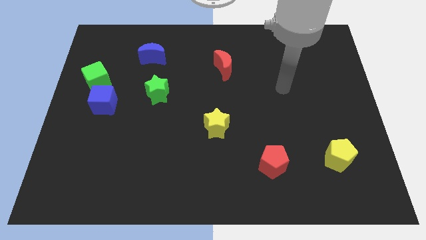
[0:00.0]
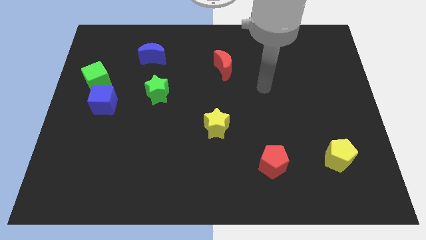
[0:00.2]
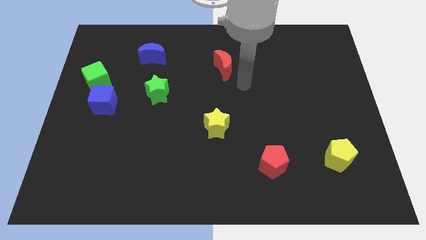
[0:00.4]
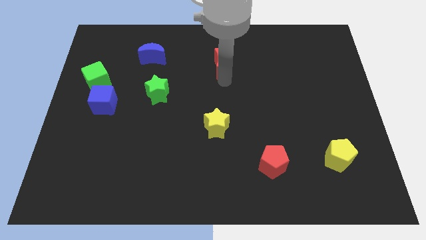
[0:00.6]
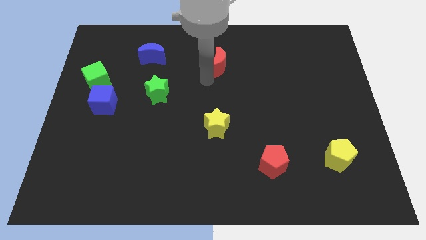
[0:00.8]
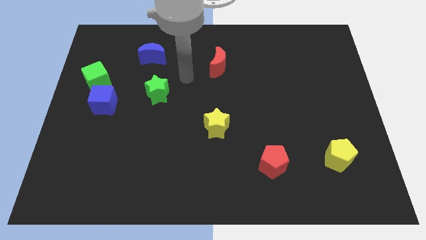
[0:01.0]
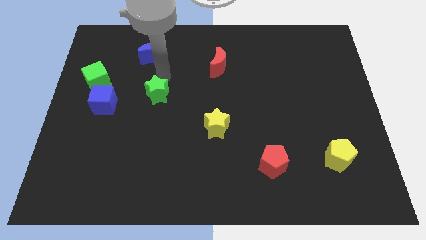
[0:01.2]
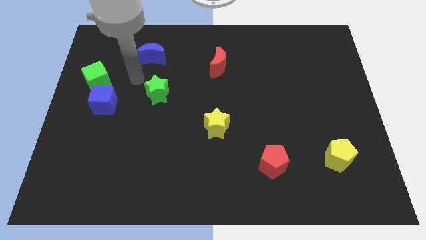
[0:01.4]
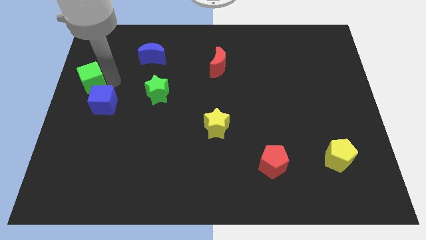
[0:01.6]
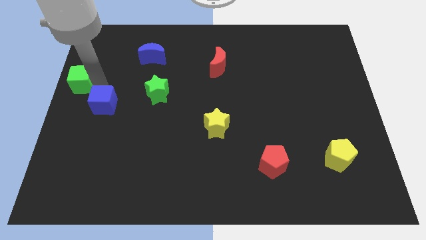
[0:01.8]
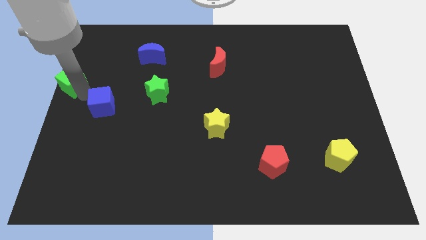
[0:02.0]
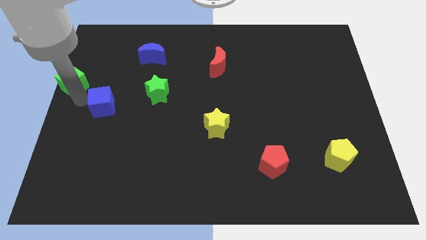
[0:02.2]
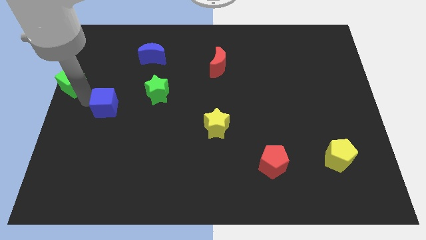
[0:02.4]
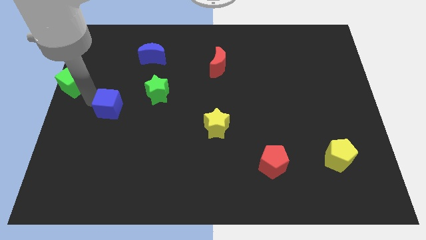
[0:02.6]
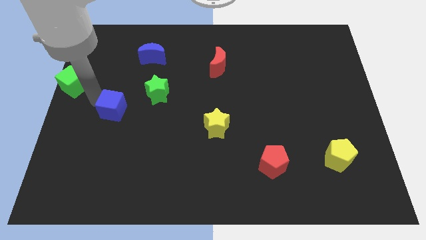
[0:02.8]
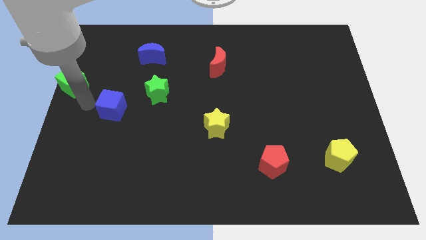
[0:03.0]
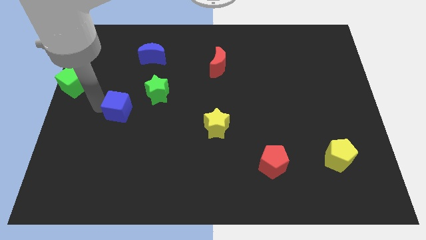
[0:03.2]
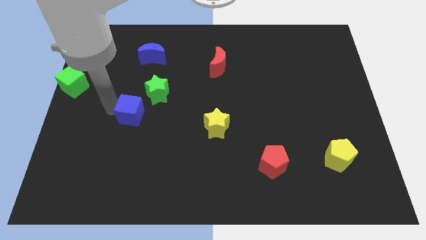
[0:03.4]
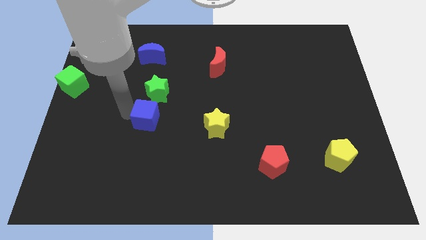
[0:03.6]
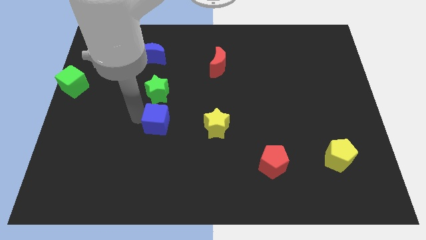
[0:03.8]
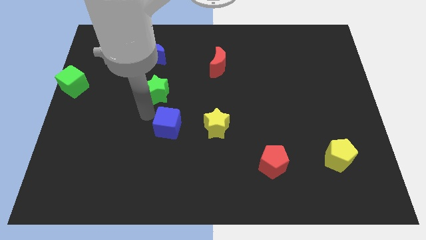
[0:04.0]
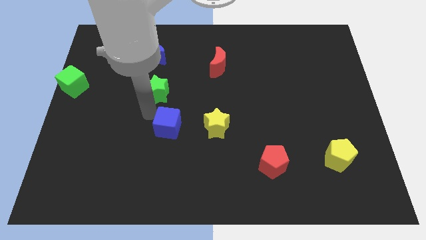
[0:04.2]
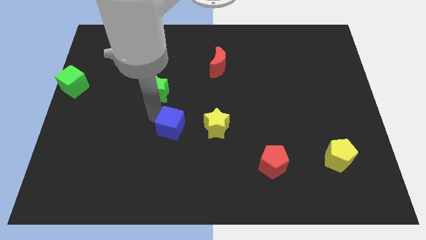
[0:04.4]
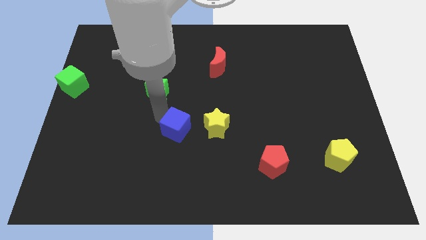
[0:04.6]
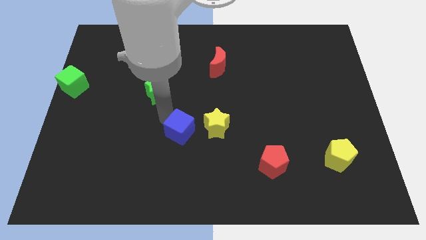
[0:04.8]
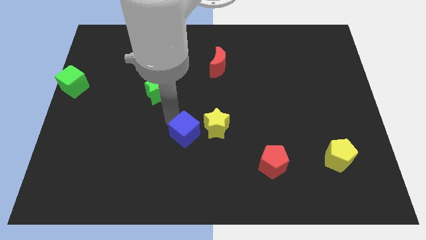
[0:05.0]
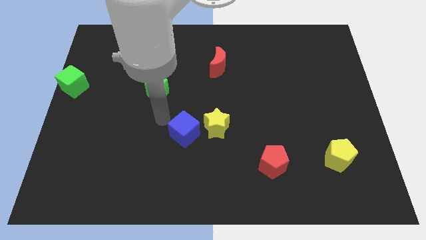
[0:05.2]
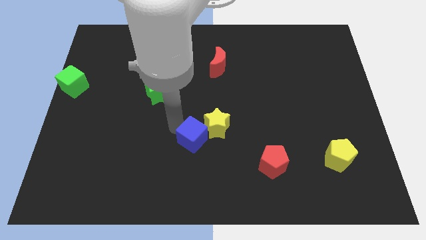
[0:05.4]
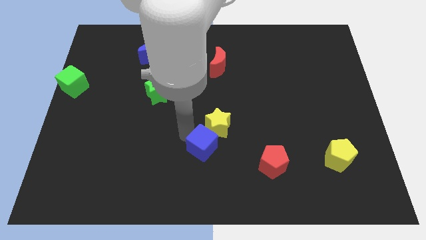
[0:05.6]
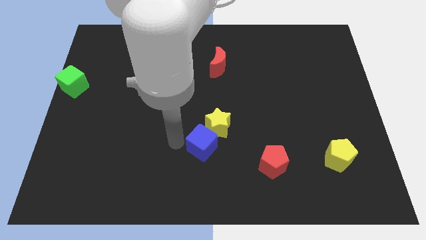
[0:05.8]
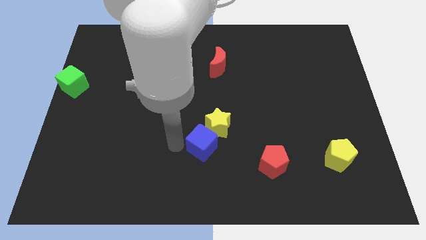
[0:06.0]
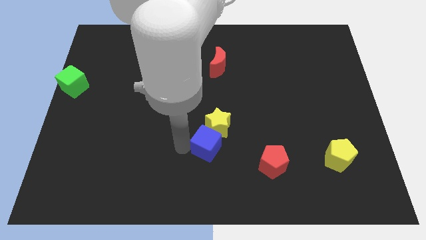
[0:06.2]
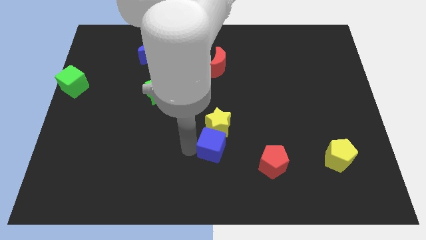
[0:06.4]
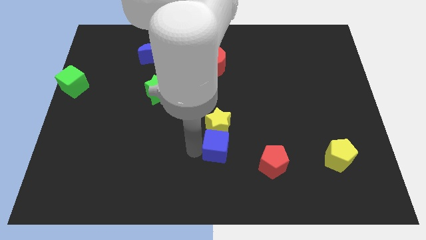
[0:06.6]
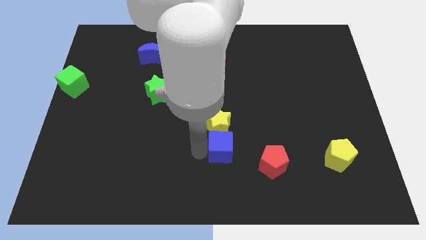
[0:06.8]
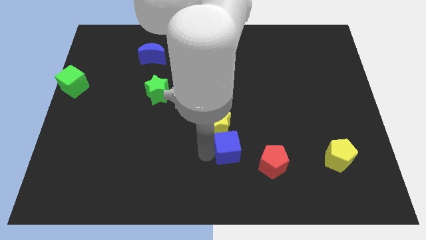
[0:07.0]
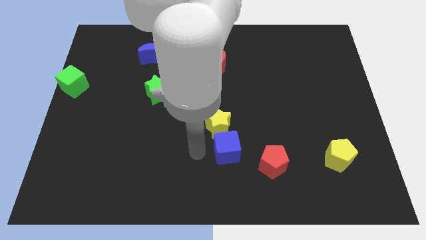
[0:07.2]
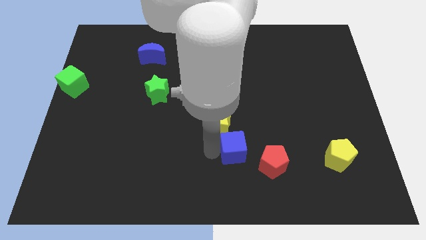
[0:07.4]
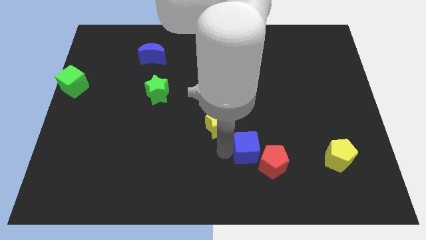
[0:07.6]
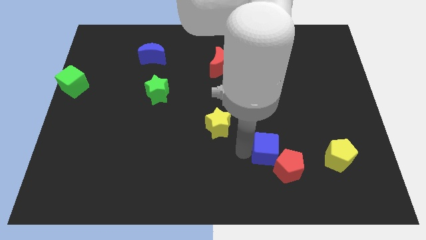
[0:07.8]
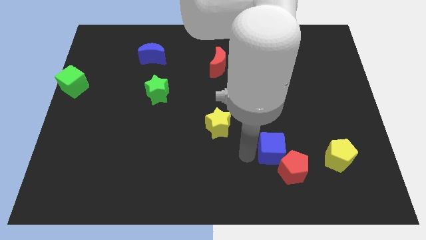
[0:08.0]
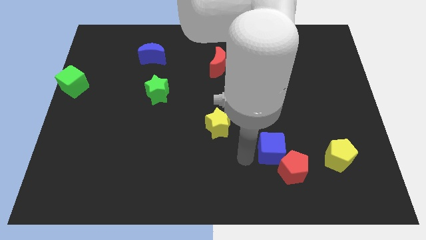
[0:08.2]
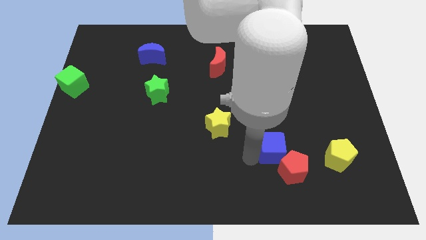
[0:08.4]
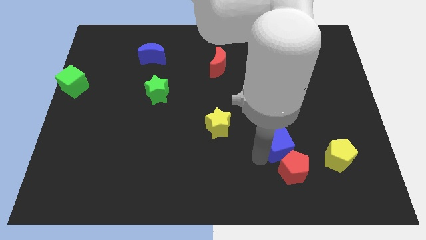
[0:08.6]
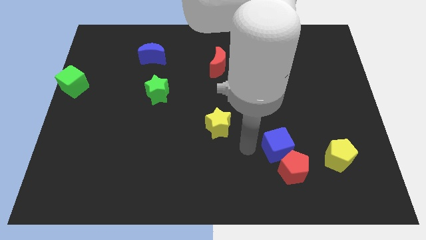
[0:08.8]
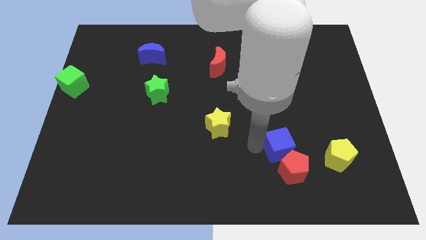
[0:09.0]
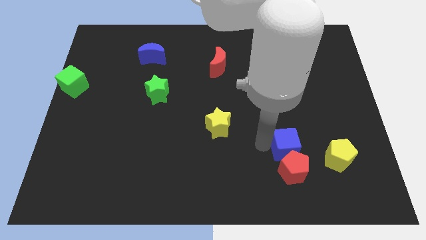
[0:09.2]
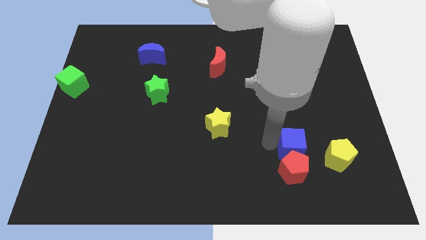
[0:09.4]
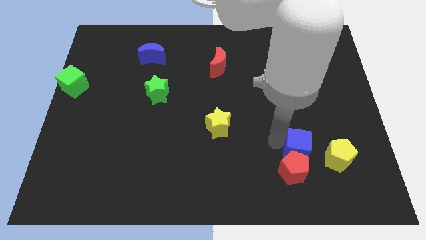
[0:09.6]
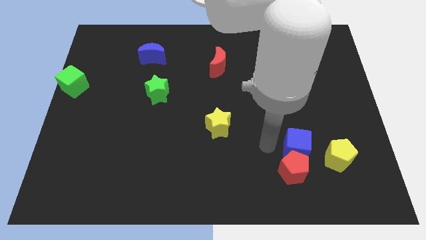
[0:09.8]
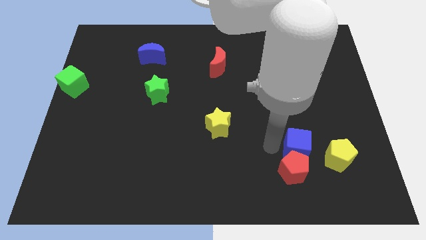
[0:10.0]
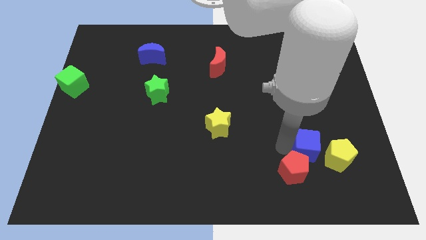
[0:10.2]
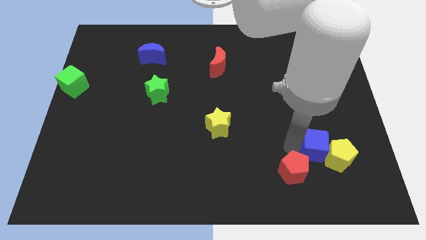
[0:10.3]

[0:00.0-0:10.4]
slide the blue cube close to the yellow pentagon

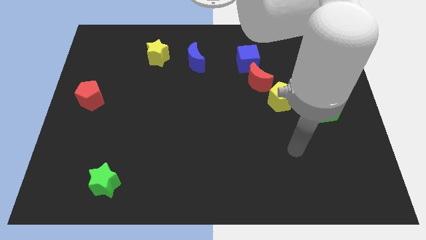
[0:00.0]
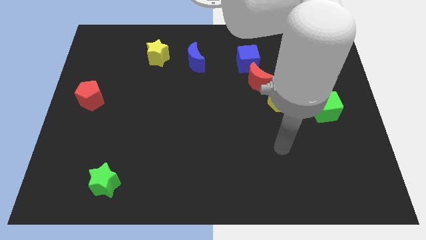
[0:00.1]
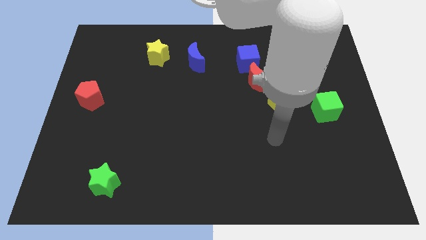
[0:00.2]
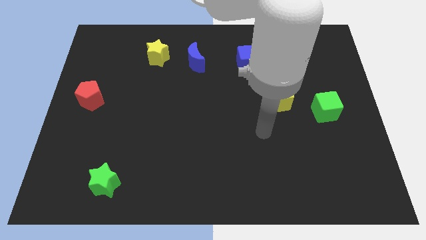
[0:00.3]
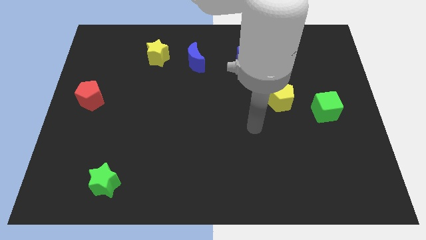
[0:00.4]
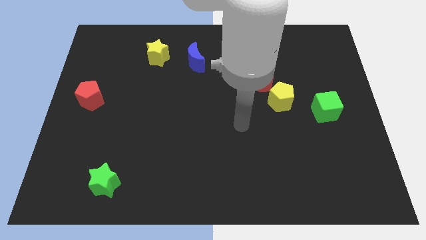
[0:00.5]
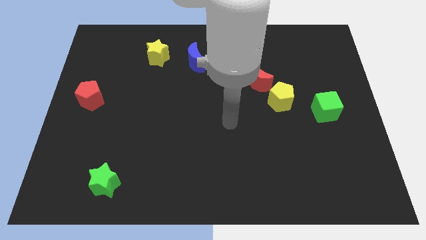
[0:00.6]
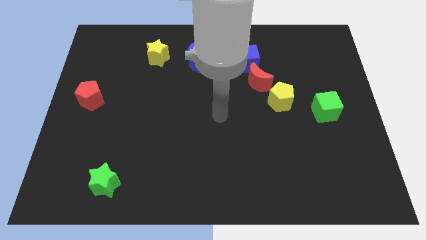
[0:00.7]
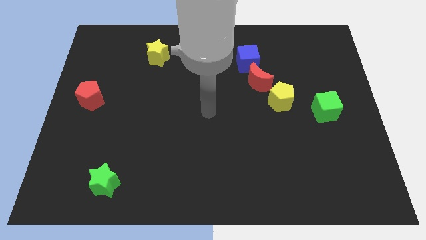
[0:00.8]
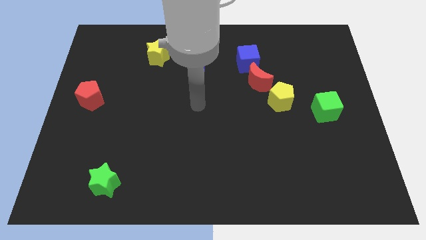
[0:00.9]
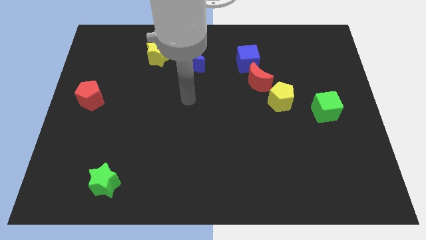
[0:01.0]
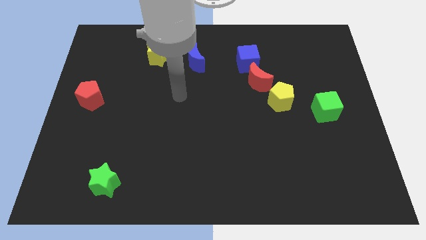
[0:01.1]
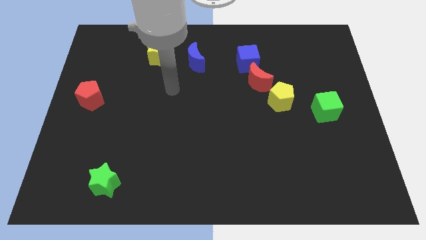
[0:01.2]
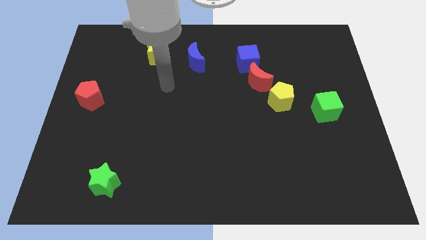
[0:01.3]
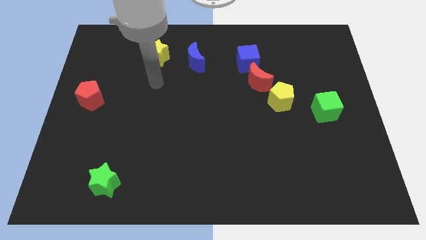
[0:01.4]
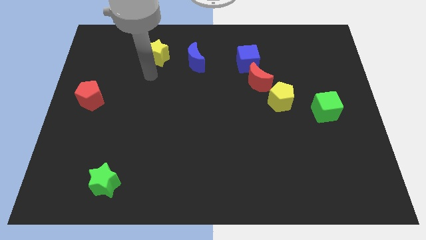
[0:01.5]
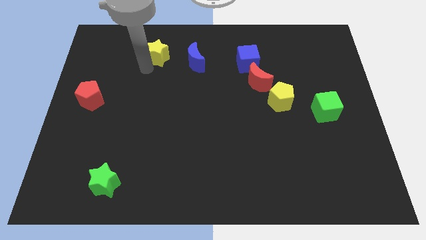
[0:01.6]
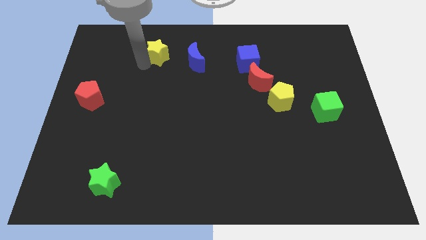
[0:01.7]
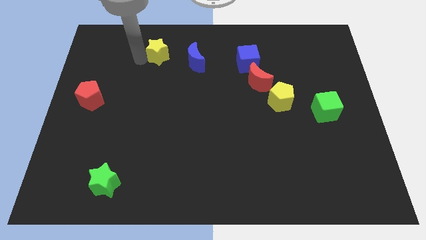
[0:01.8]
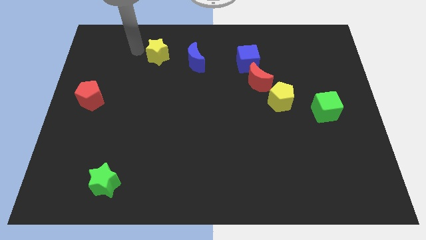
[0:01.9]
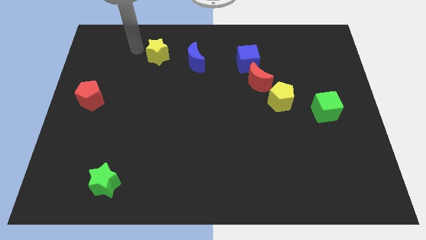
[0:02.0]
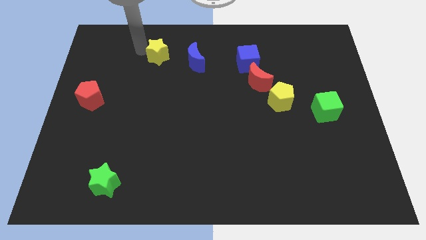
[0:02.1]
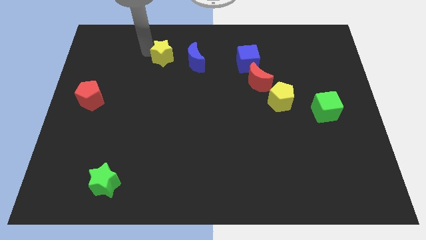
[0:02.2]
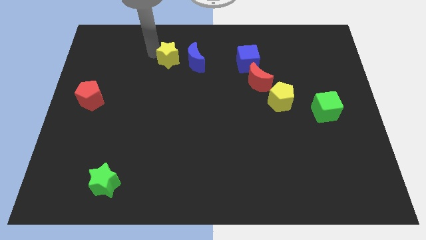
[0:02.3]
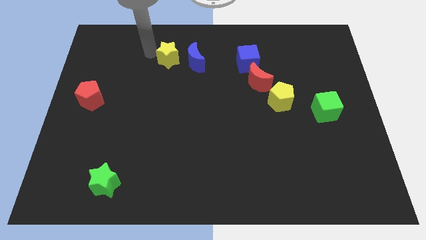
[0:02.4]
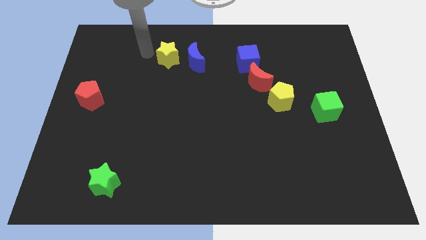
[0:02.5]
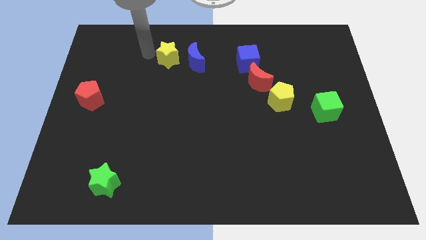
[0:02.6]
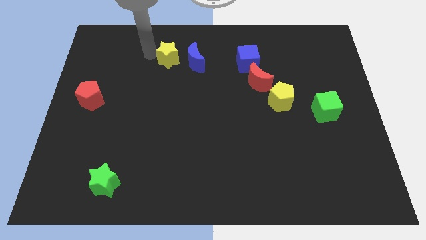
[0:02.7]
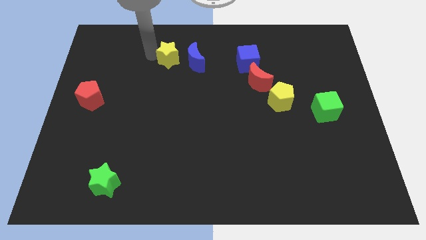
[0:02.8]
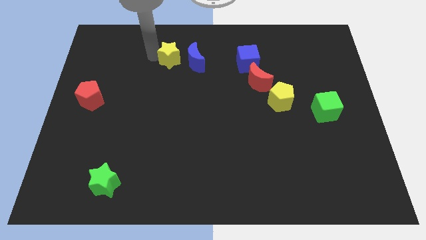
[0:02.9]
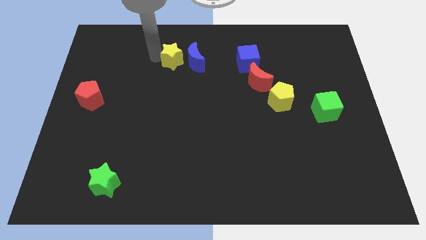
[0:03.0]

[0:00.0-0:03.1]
put the yellow star next to the blue moon
